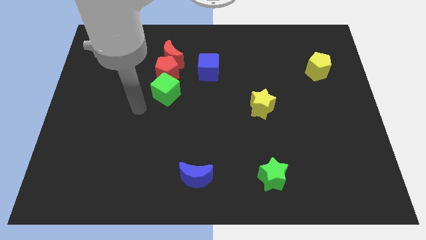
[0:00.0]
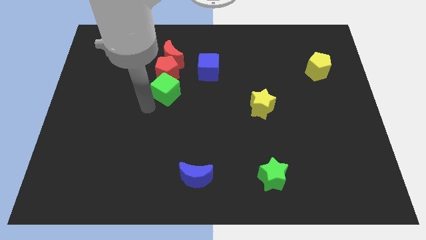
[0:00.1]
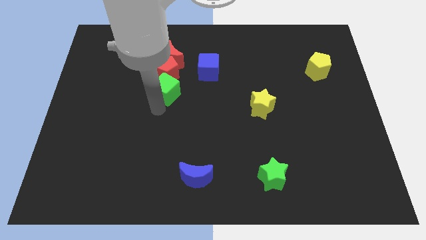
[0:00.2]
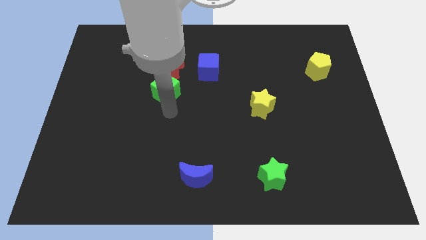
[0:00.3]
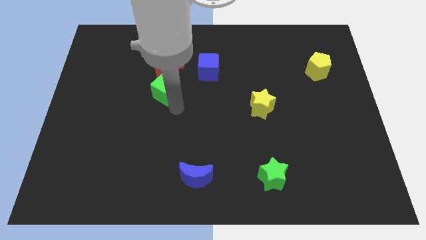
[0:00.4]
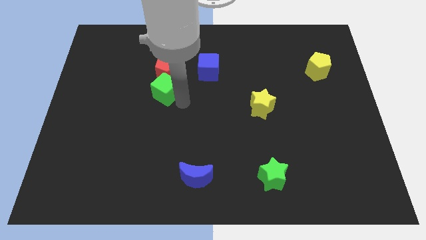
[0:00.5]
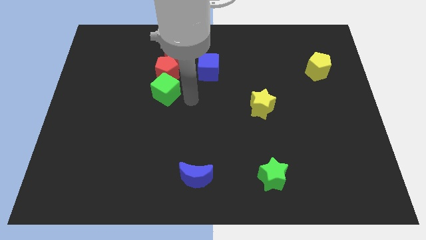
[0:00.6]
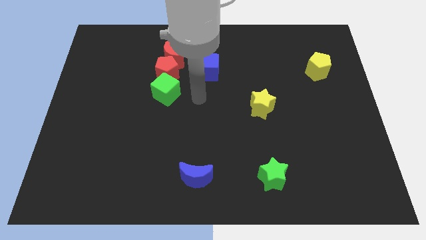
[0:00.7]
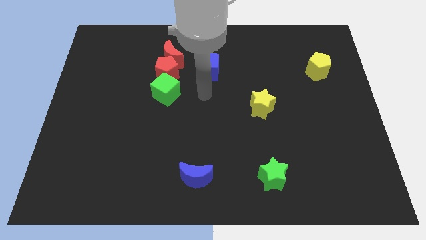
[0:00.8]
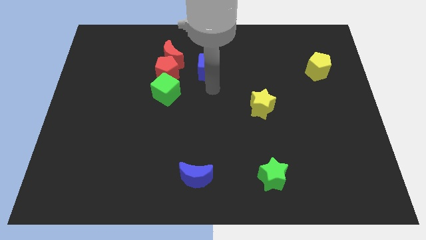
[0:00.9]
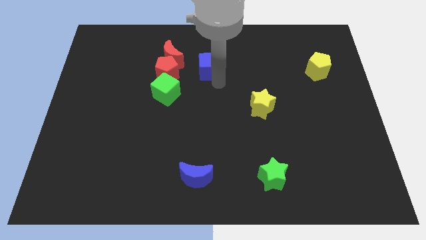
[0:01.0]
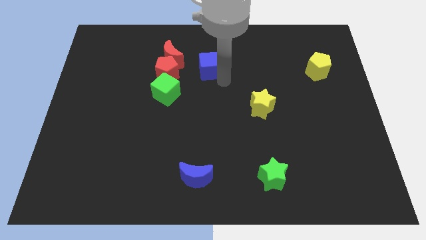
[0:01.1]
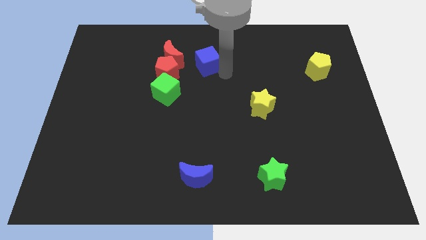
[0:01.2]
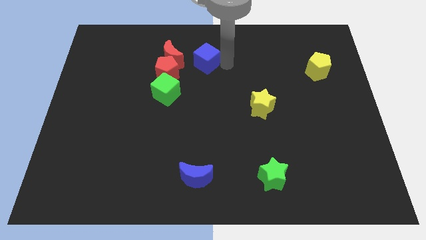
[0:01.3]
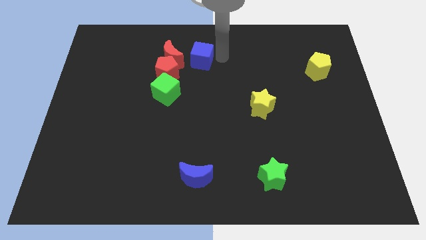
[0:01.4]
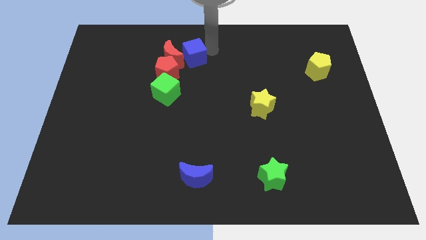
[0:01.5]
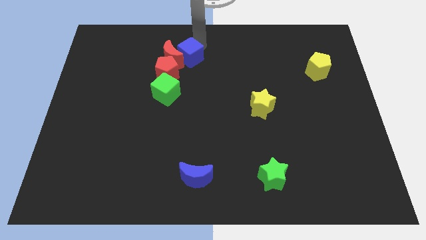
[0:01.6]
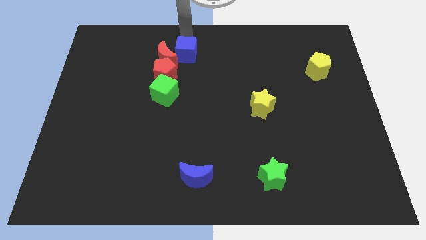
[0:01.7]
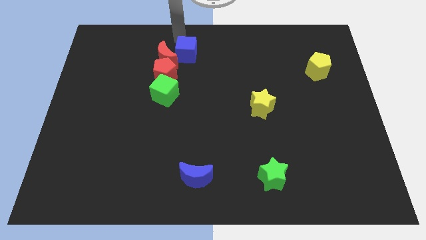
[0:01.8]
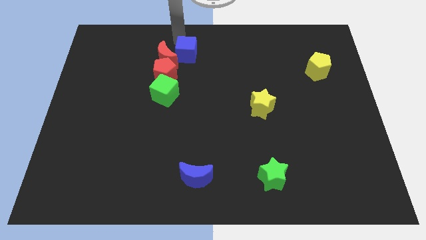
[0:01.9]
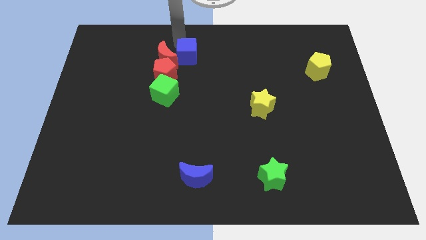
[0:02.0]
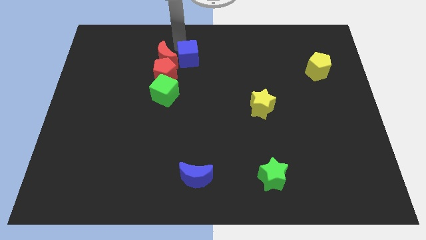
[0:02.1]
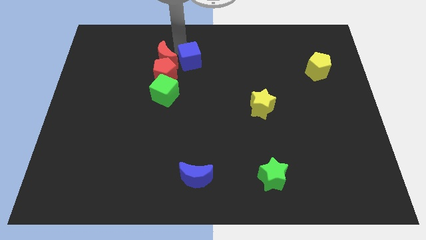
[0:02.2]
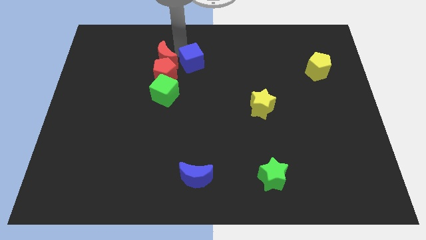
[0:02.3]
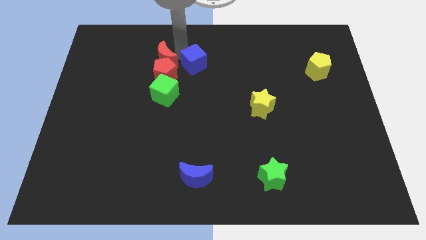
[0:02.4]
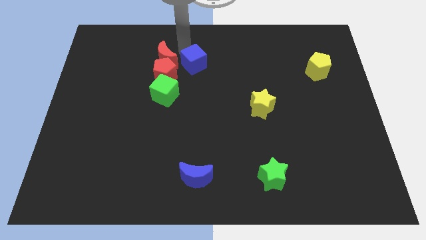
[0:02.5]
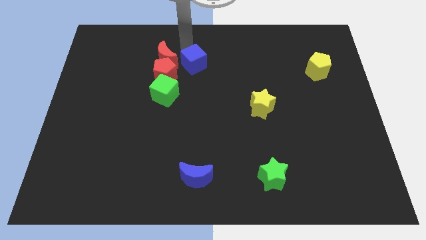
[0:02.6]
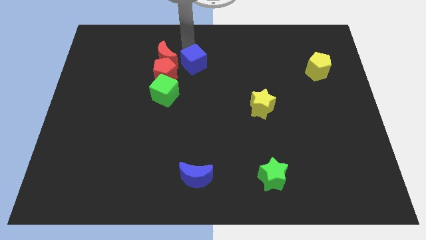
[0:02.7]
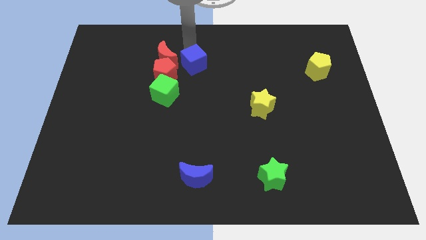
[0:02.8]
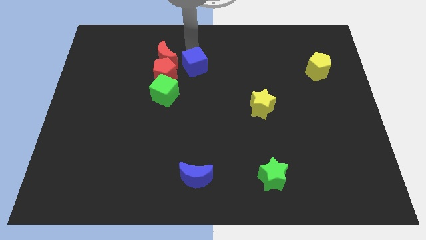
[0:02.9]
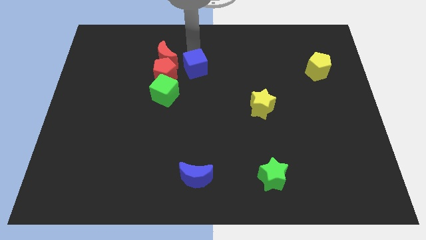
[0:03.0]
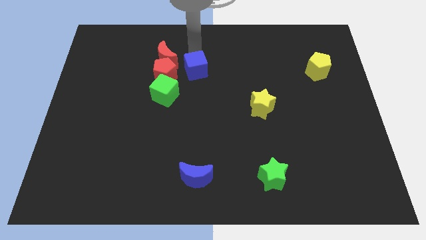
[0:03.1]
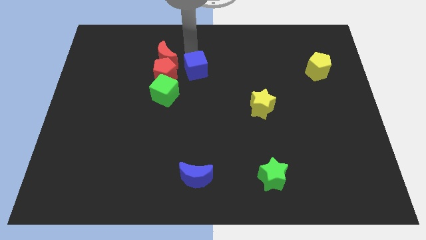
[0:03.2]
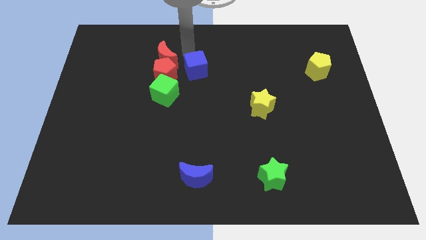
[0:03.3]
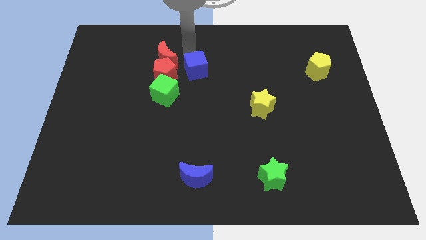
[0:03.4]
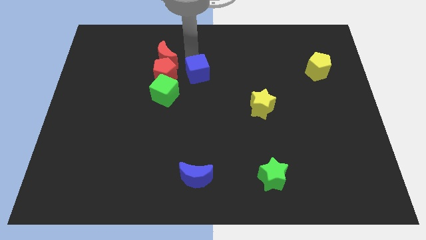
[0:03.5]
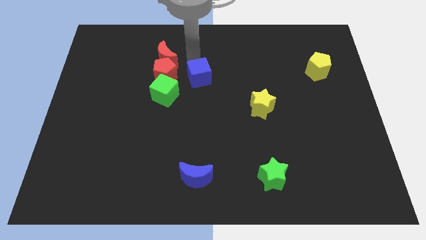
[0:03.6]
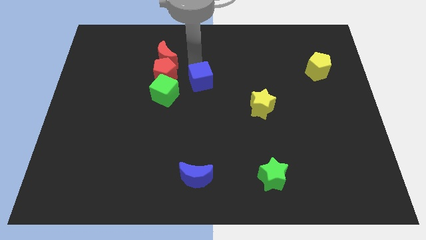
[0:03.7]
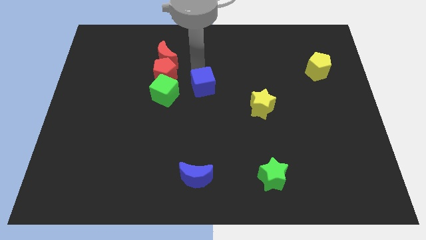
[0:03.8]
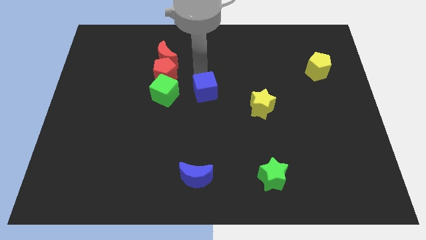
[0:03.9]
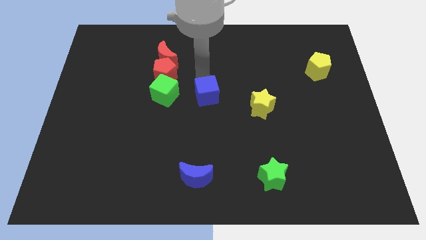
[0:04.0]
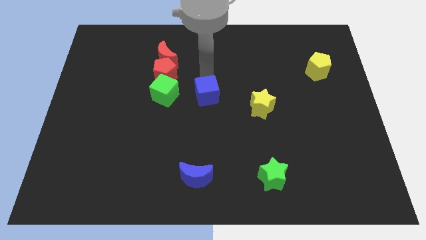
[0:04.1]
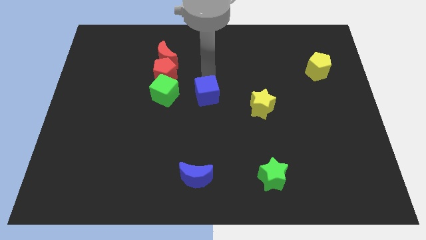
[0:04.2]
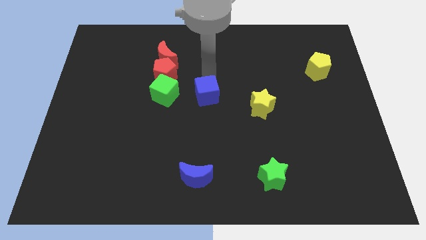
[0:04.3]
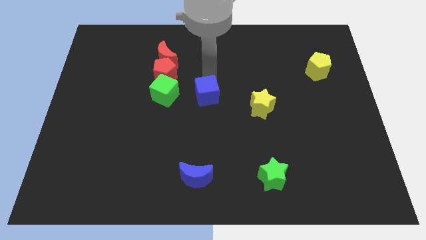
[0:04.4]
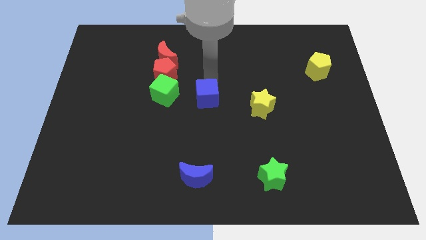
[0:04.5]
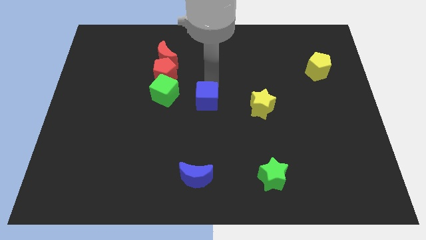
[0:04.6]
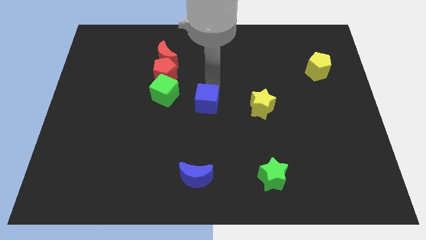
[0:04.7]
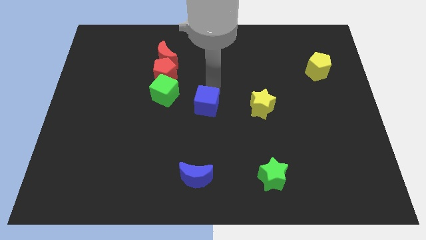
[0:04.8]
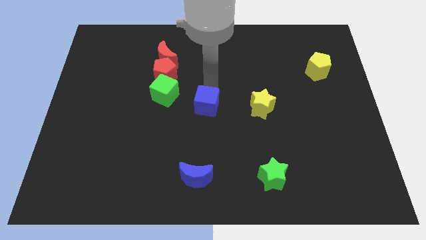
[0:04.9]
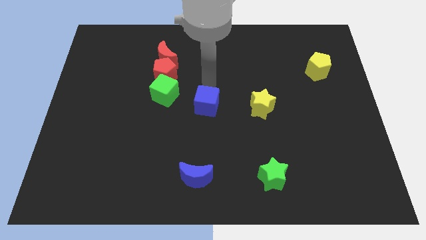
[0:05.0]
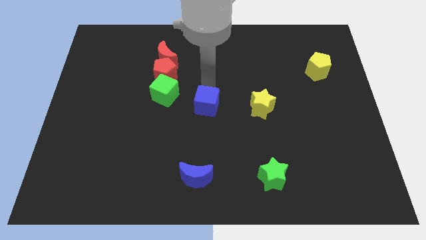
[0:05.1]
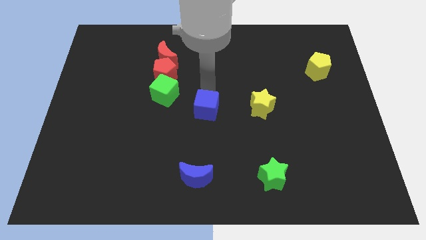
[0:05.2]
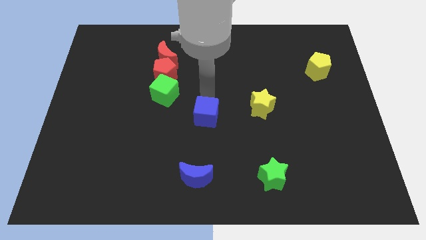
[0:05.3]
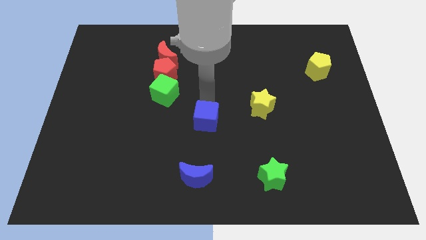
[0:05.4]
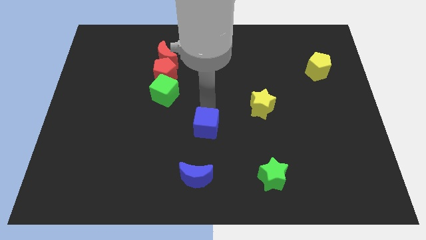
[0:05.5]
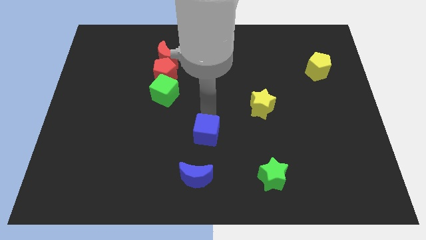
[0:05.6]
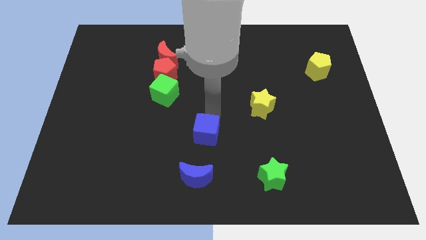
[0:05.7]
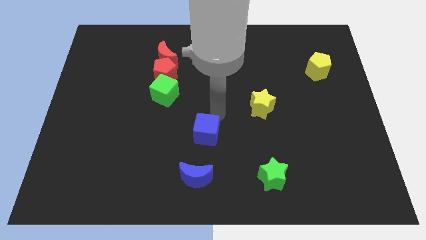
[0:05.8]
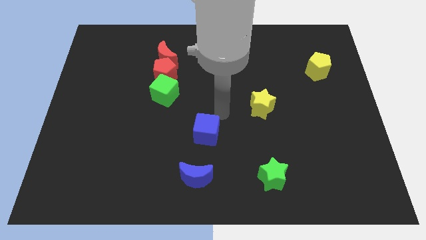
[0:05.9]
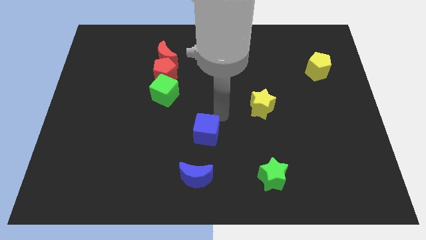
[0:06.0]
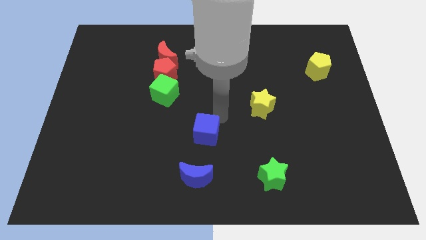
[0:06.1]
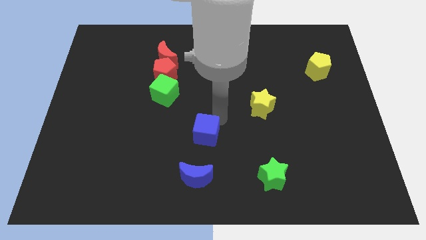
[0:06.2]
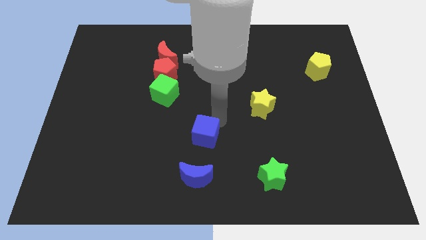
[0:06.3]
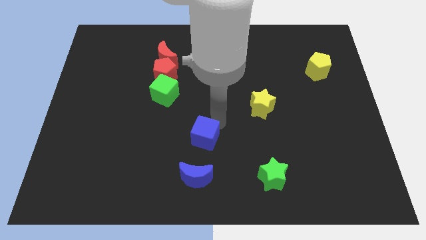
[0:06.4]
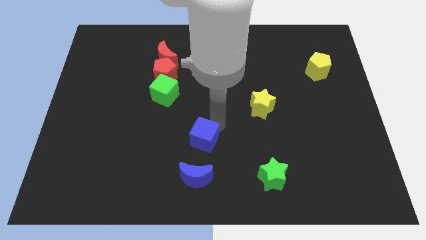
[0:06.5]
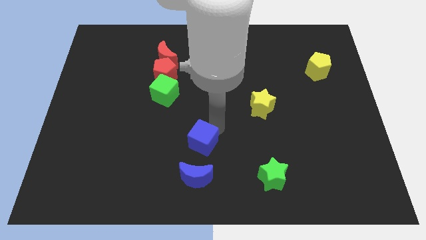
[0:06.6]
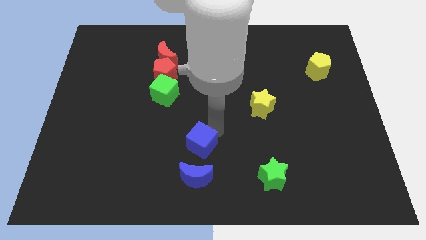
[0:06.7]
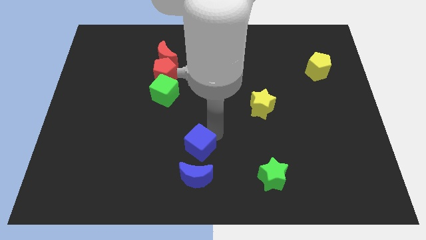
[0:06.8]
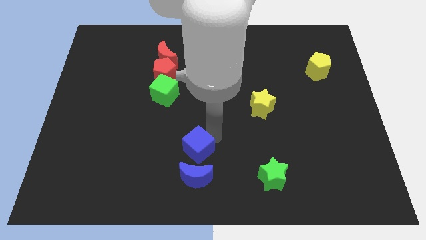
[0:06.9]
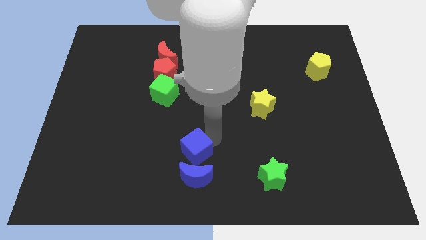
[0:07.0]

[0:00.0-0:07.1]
move the blue cube to the top left of the blue moon
